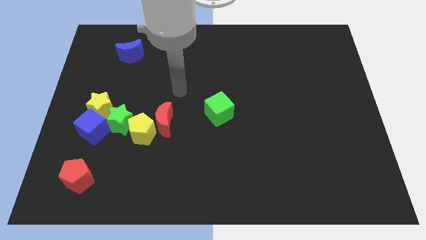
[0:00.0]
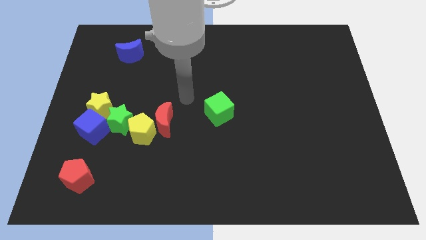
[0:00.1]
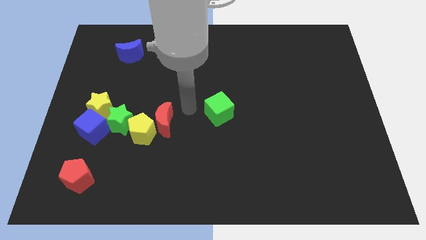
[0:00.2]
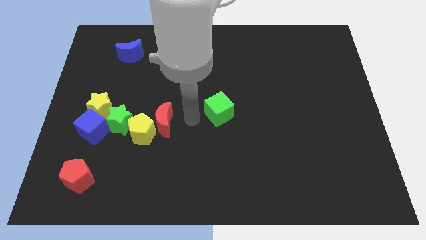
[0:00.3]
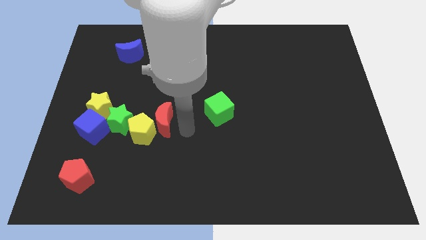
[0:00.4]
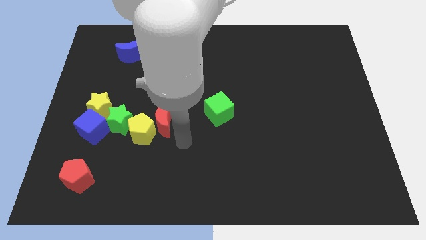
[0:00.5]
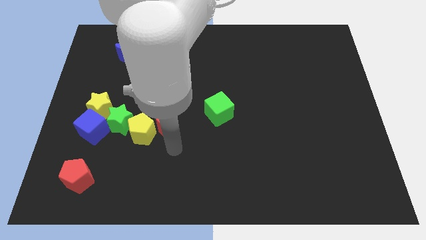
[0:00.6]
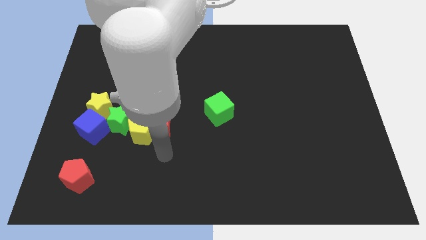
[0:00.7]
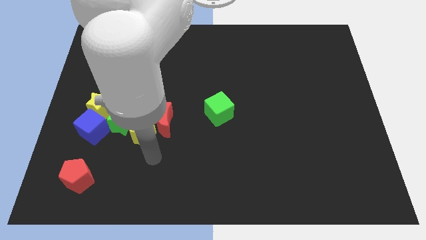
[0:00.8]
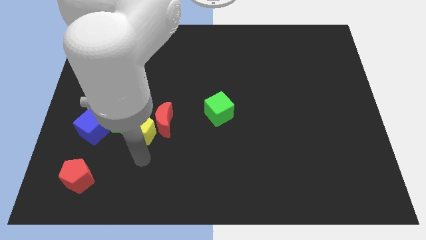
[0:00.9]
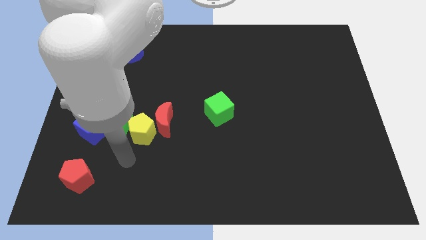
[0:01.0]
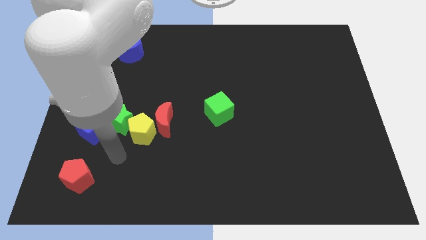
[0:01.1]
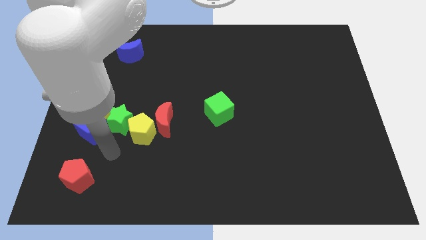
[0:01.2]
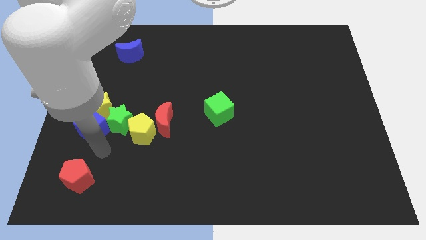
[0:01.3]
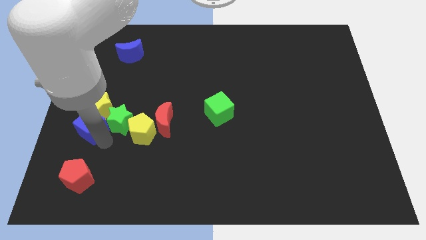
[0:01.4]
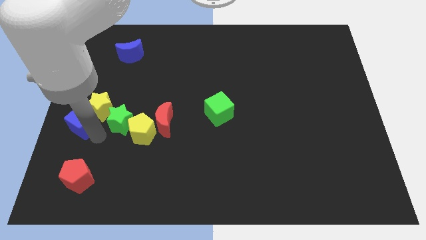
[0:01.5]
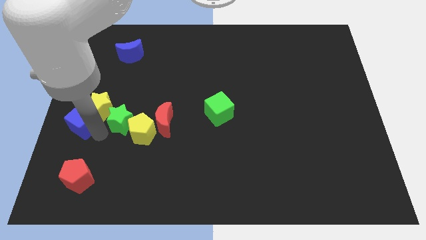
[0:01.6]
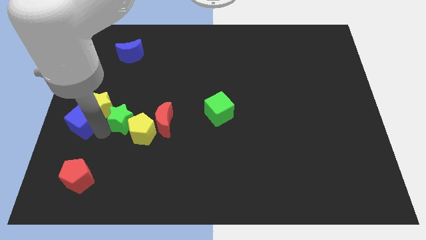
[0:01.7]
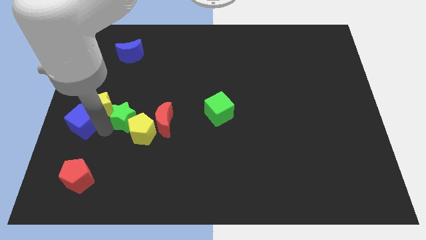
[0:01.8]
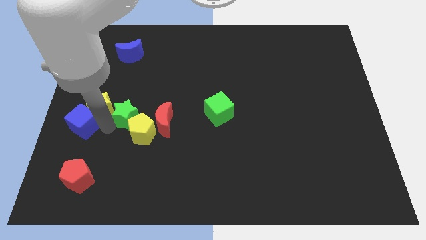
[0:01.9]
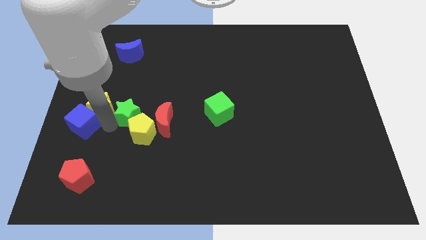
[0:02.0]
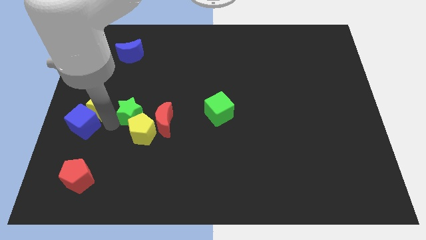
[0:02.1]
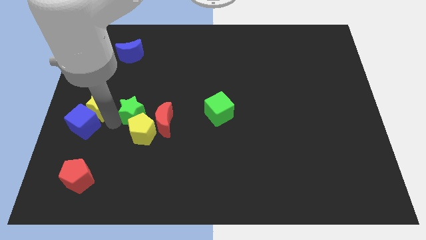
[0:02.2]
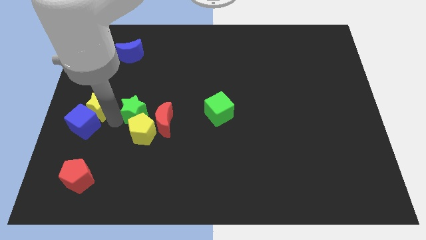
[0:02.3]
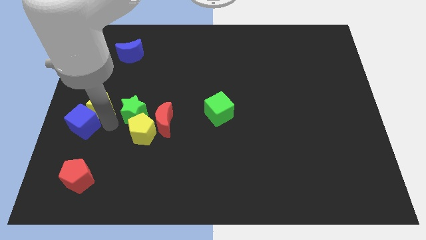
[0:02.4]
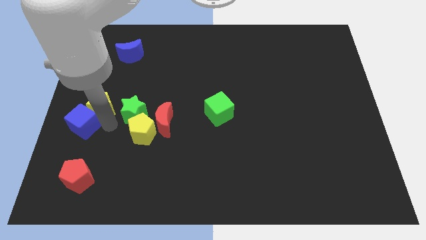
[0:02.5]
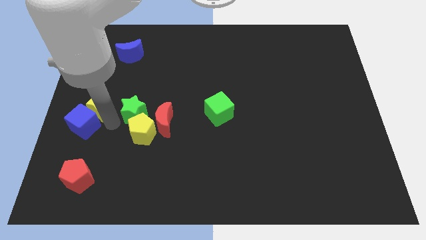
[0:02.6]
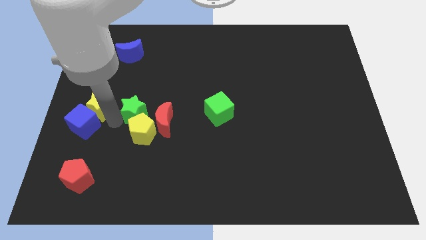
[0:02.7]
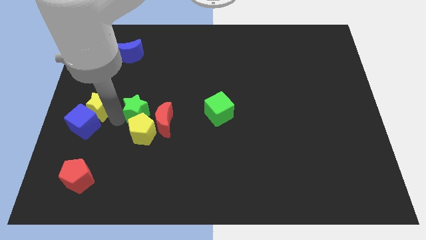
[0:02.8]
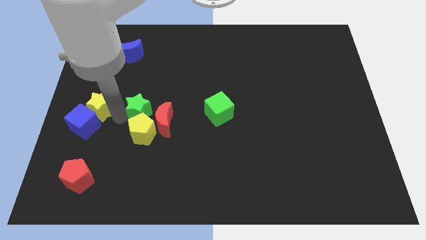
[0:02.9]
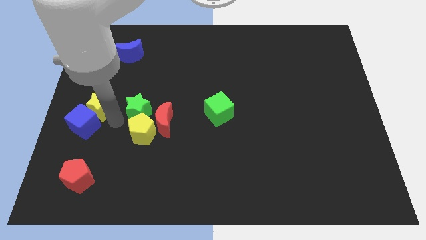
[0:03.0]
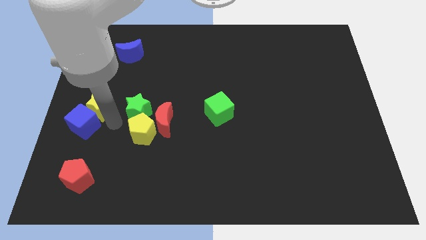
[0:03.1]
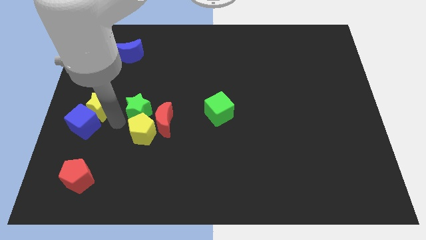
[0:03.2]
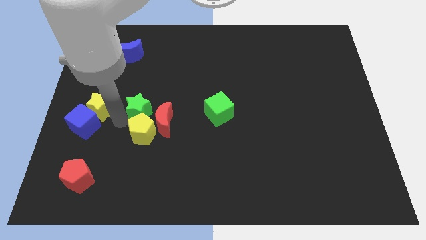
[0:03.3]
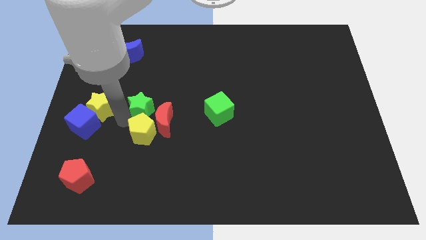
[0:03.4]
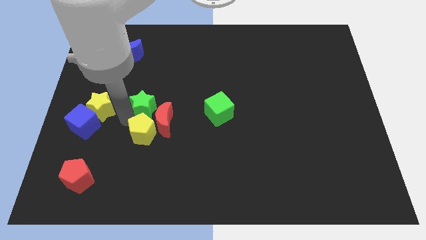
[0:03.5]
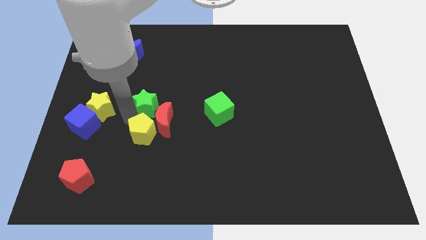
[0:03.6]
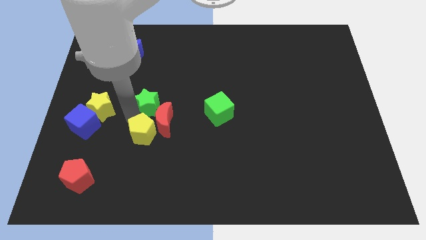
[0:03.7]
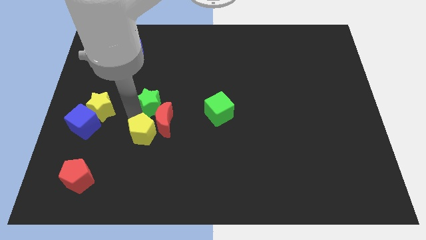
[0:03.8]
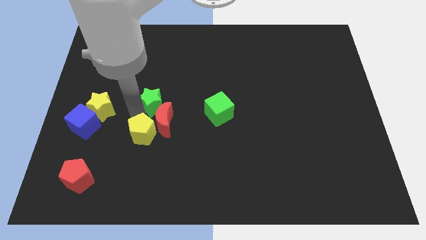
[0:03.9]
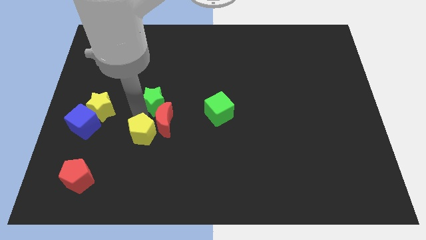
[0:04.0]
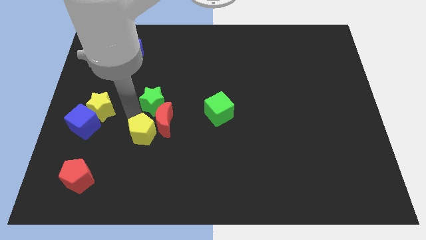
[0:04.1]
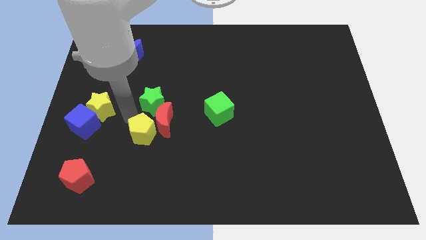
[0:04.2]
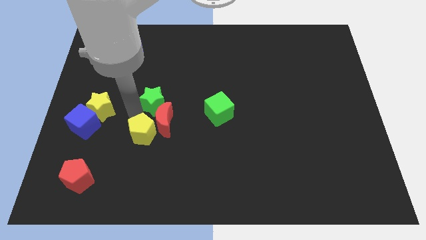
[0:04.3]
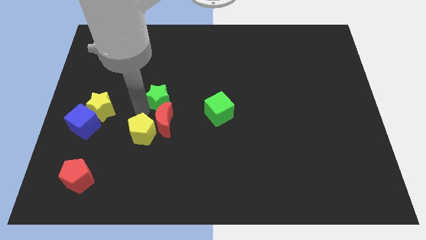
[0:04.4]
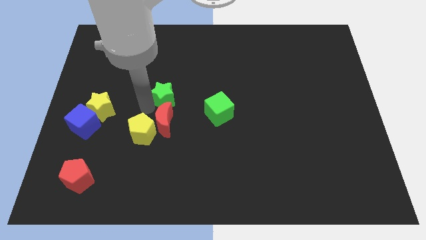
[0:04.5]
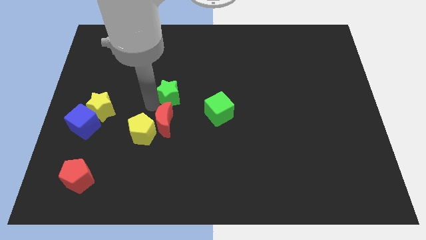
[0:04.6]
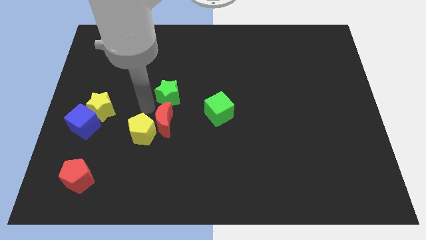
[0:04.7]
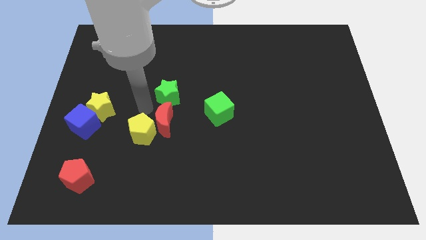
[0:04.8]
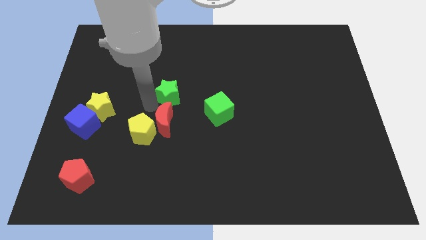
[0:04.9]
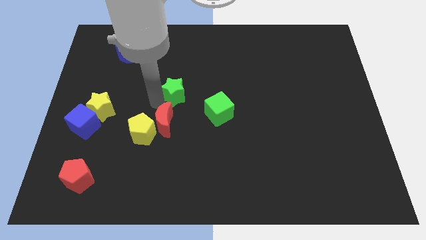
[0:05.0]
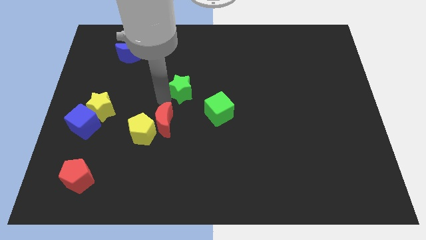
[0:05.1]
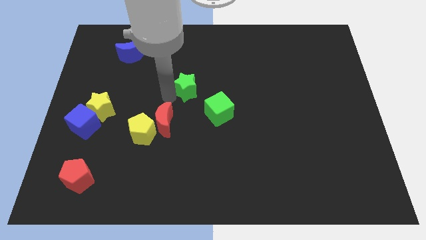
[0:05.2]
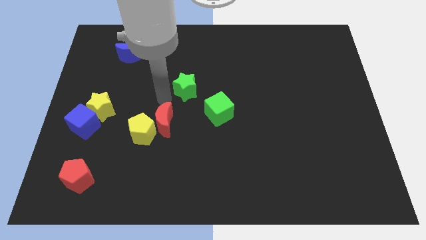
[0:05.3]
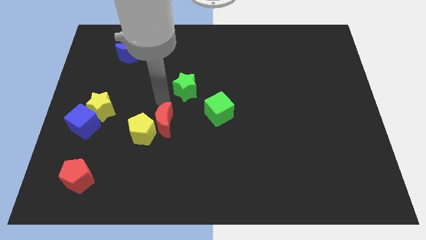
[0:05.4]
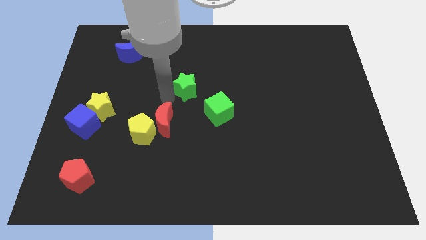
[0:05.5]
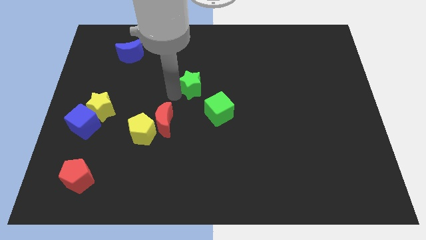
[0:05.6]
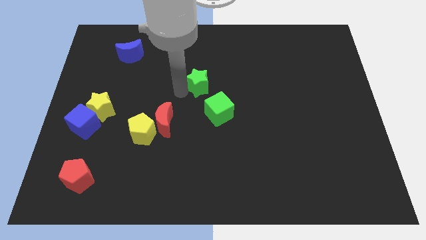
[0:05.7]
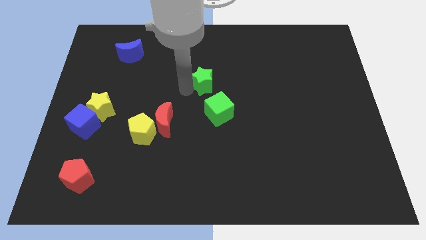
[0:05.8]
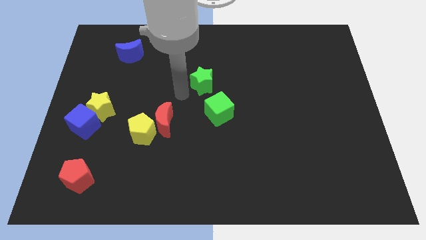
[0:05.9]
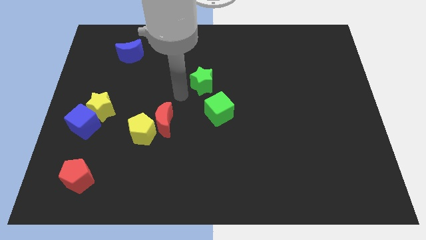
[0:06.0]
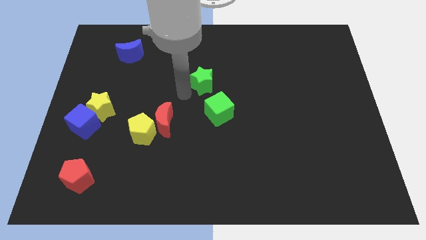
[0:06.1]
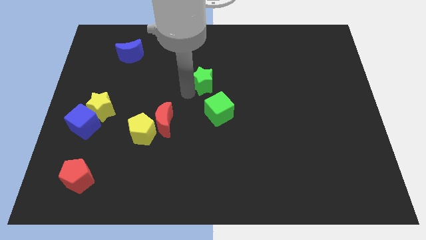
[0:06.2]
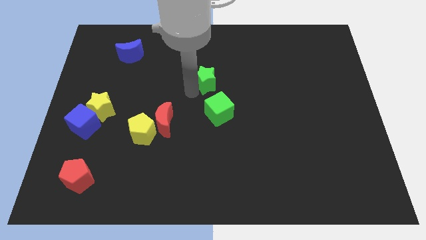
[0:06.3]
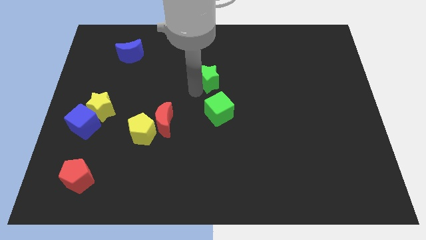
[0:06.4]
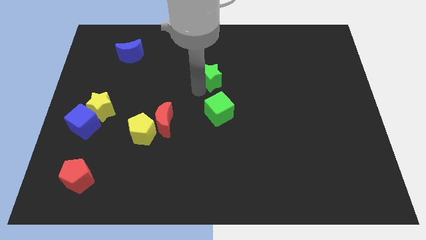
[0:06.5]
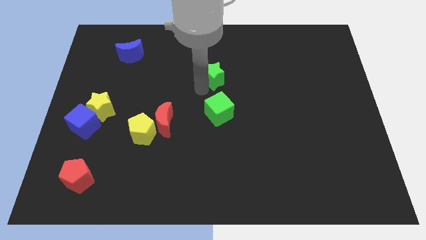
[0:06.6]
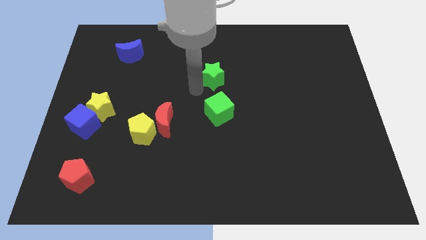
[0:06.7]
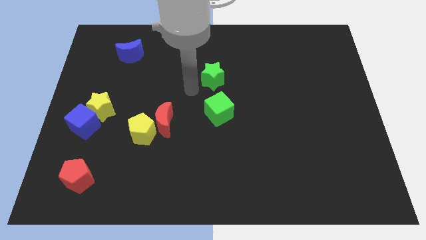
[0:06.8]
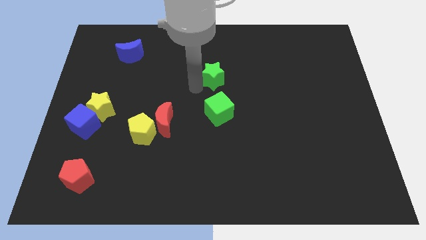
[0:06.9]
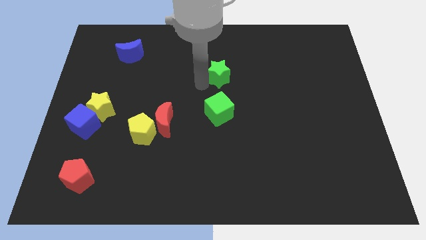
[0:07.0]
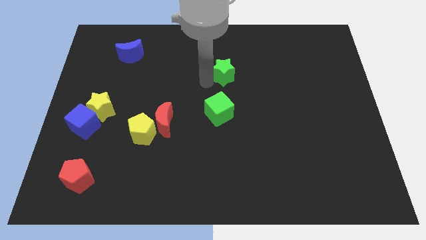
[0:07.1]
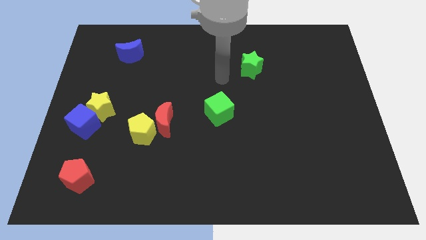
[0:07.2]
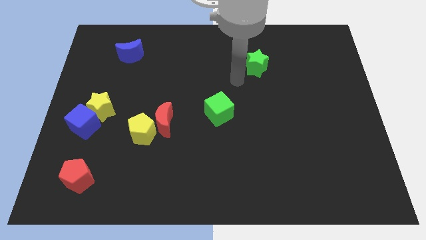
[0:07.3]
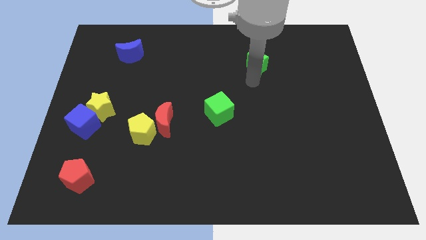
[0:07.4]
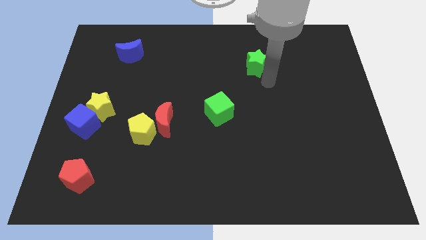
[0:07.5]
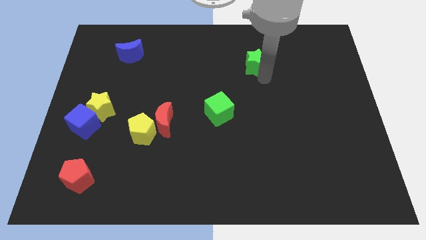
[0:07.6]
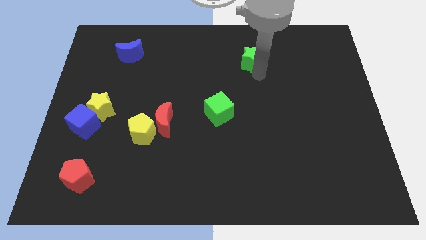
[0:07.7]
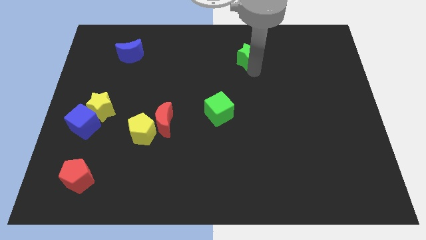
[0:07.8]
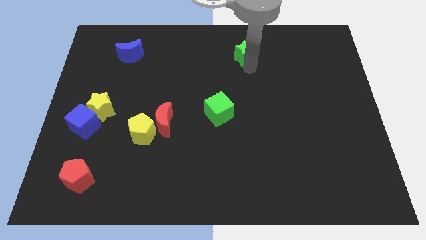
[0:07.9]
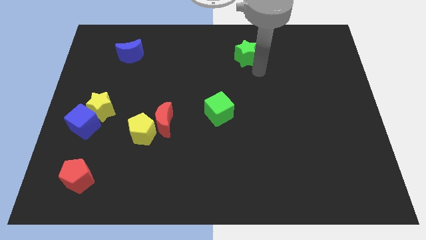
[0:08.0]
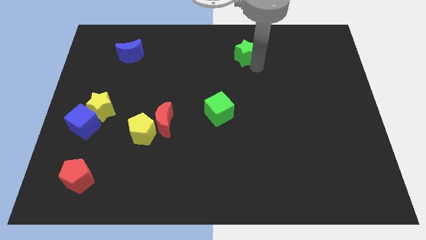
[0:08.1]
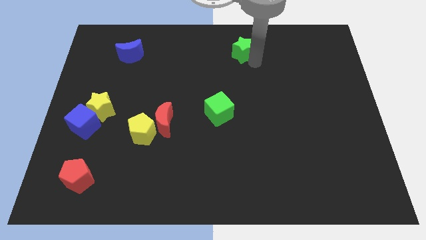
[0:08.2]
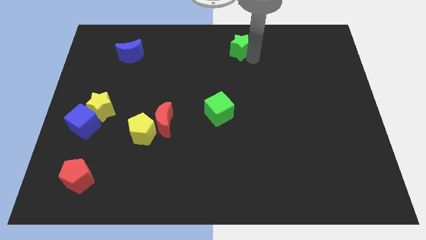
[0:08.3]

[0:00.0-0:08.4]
move the green star to the towards your base
